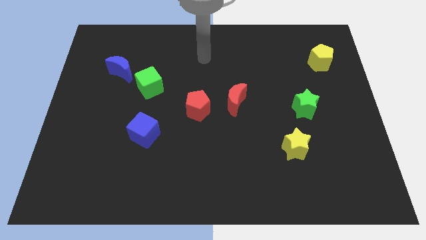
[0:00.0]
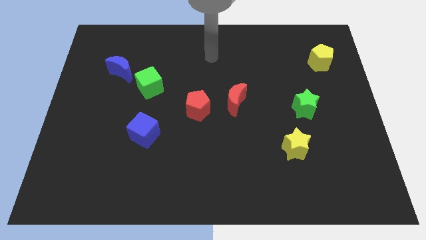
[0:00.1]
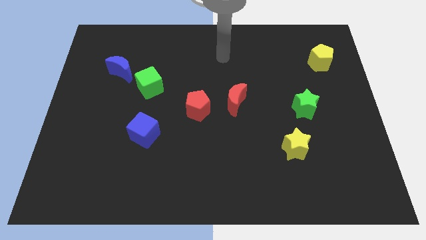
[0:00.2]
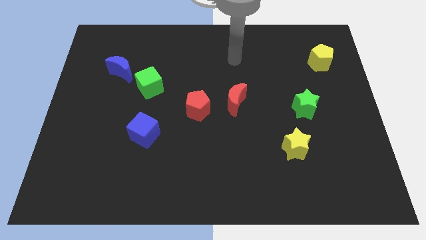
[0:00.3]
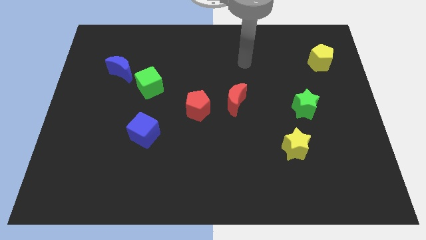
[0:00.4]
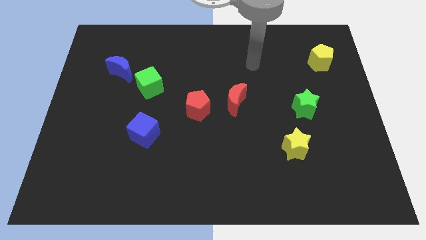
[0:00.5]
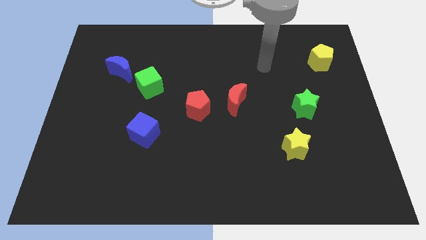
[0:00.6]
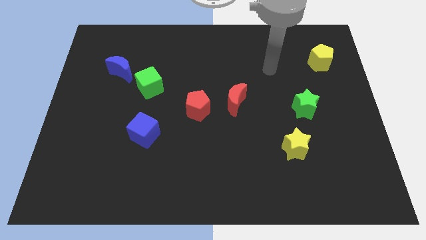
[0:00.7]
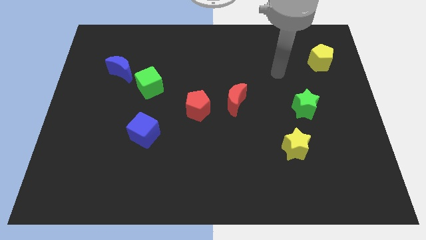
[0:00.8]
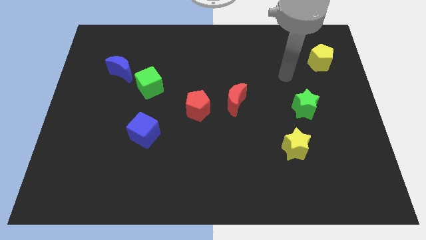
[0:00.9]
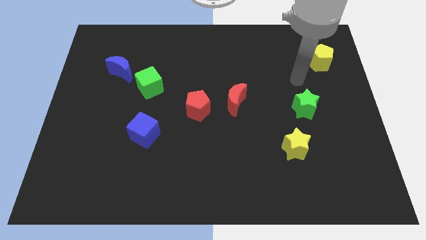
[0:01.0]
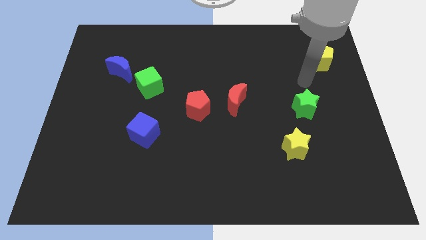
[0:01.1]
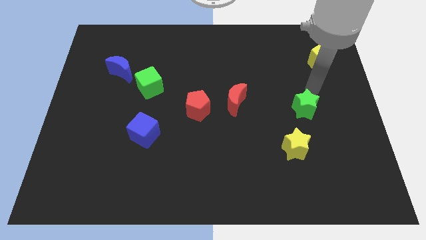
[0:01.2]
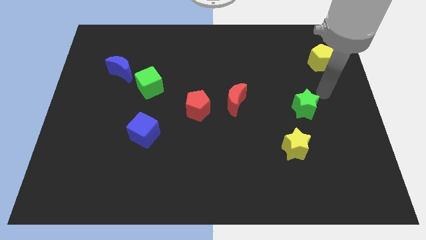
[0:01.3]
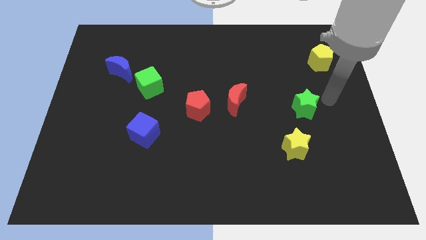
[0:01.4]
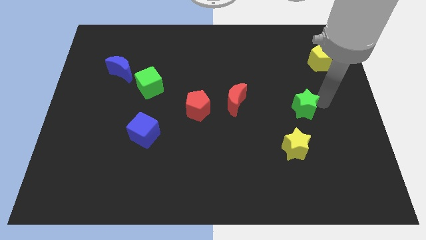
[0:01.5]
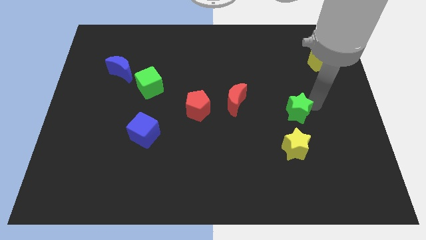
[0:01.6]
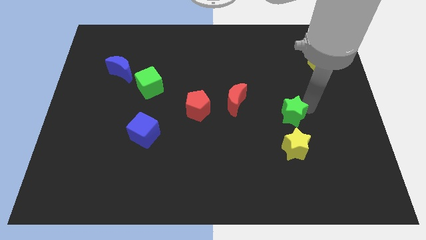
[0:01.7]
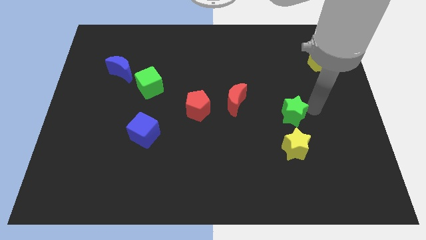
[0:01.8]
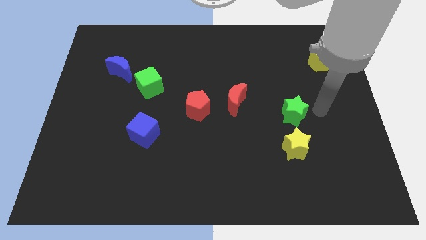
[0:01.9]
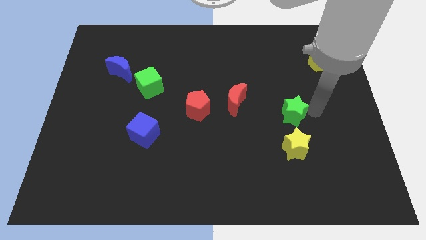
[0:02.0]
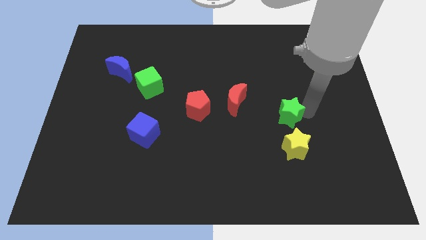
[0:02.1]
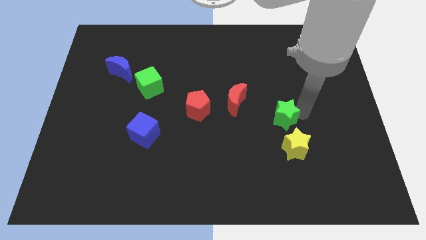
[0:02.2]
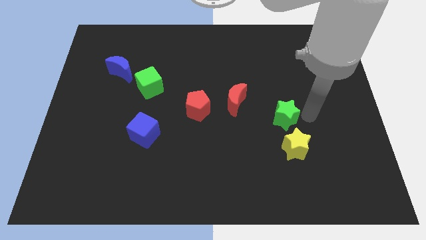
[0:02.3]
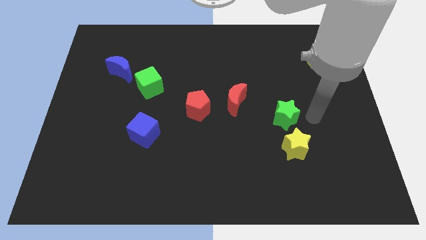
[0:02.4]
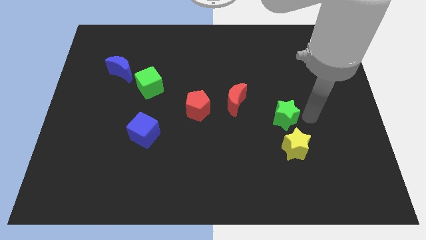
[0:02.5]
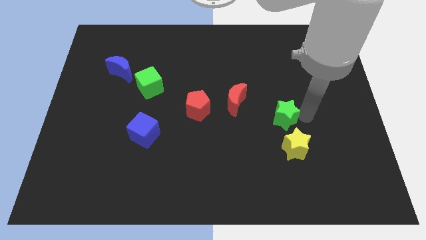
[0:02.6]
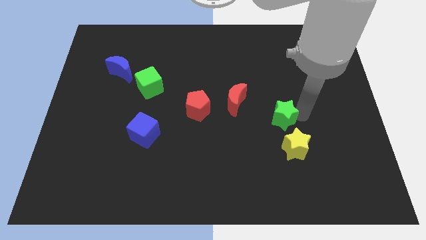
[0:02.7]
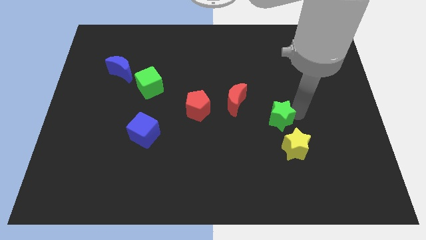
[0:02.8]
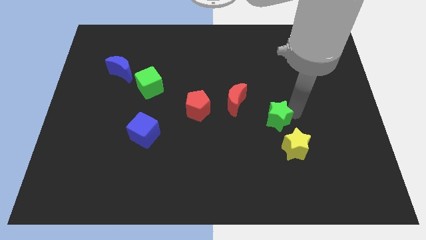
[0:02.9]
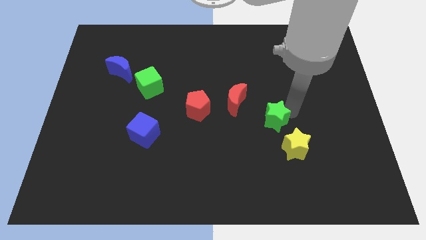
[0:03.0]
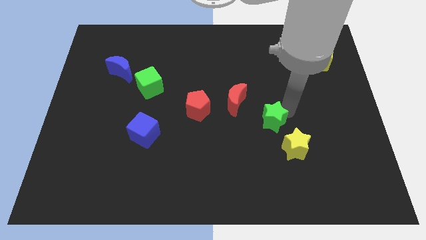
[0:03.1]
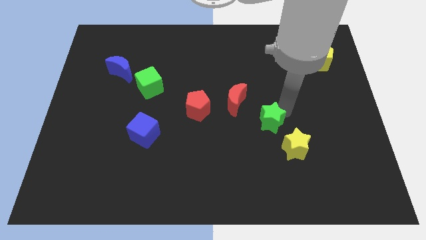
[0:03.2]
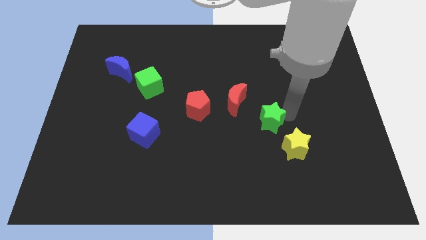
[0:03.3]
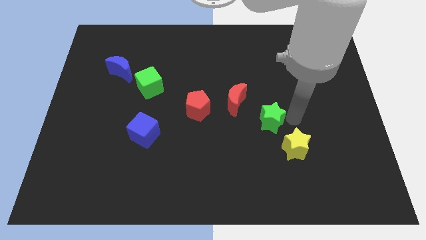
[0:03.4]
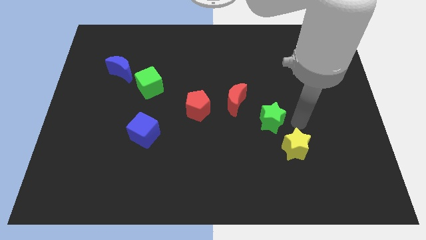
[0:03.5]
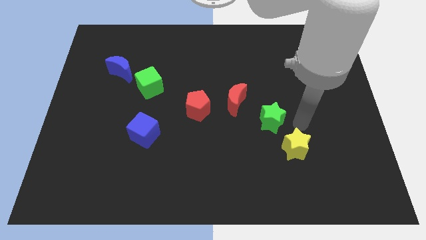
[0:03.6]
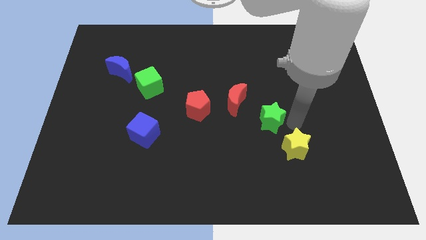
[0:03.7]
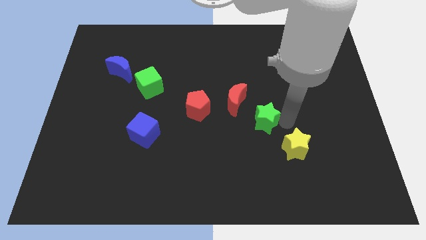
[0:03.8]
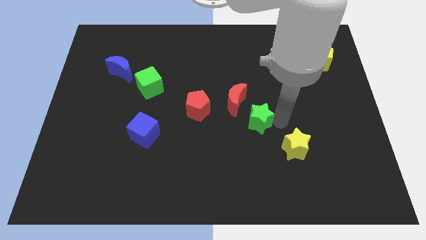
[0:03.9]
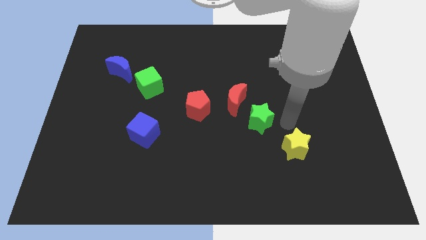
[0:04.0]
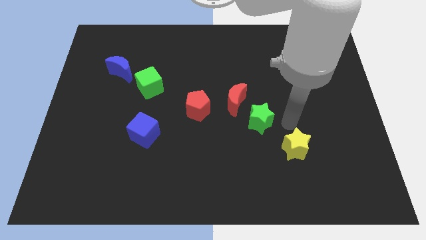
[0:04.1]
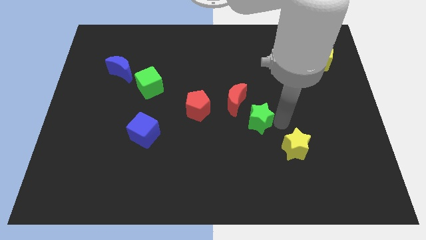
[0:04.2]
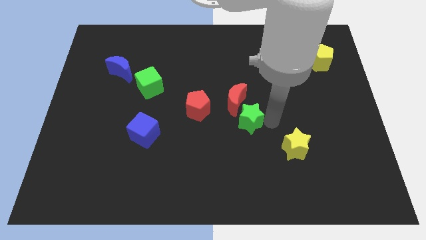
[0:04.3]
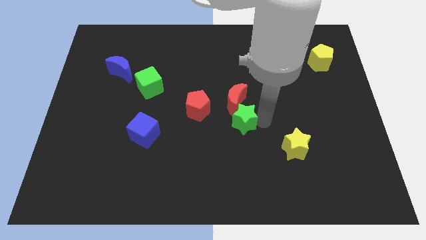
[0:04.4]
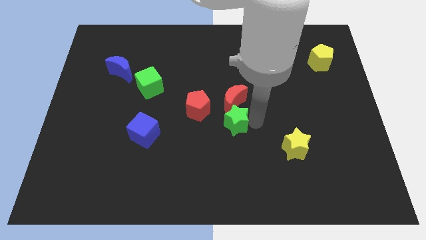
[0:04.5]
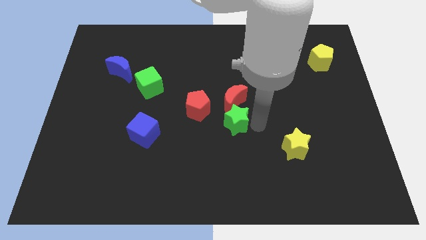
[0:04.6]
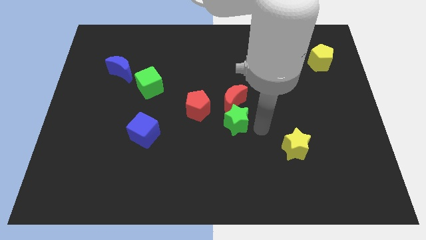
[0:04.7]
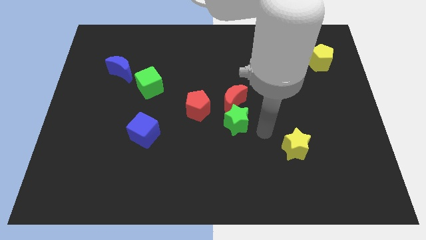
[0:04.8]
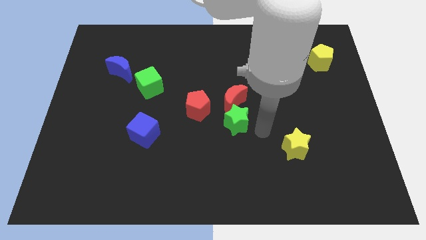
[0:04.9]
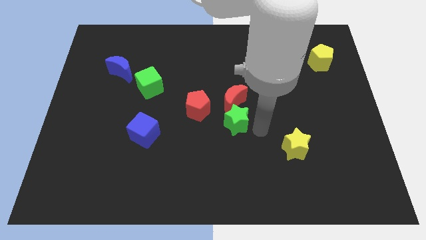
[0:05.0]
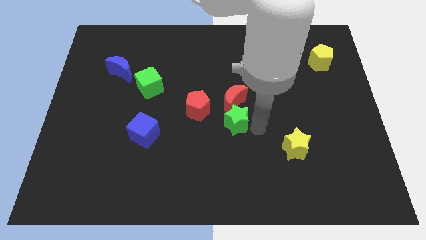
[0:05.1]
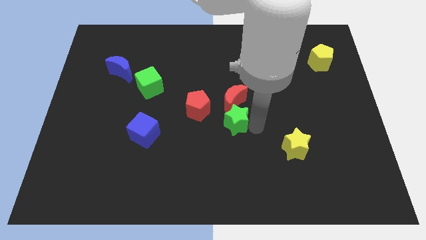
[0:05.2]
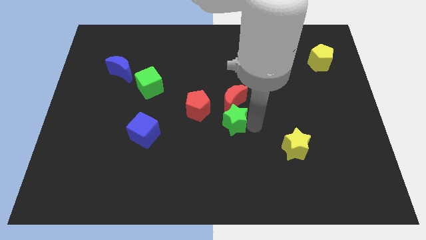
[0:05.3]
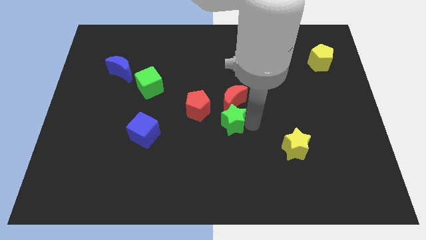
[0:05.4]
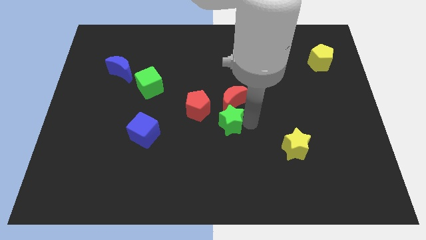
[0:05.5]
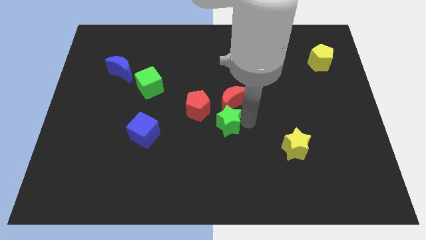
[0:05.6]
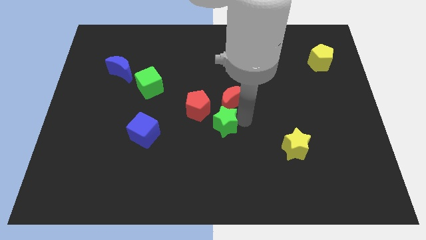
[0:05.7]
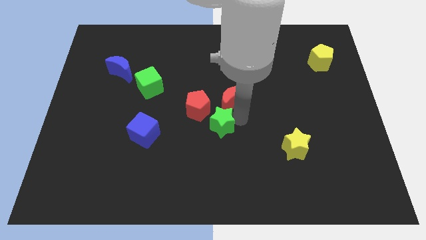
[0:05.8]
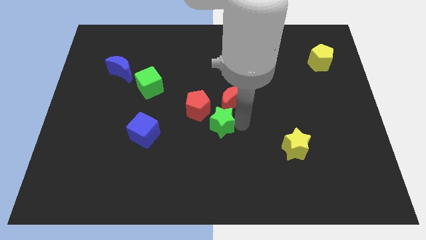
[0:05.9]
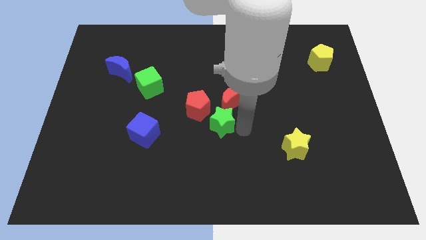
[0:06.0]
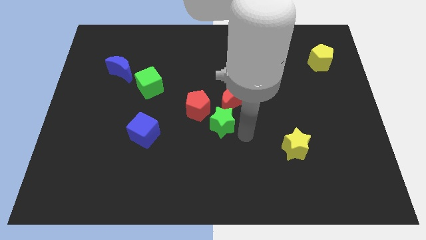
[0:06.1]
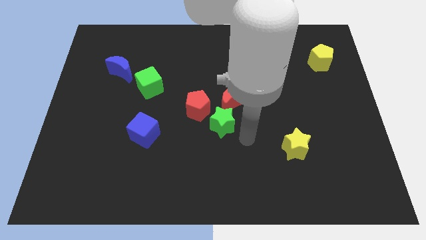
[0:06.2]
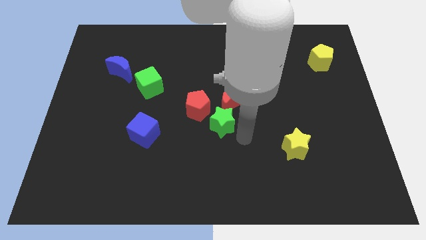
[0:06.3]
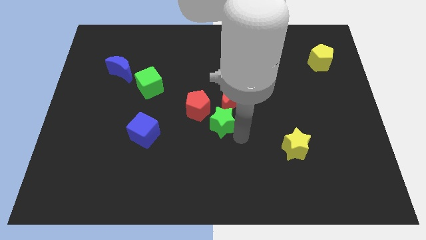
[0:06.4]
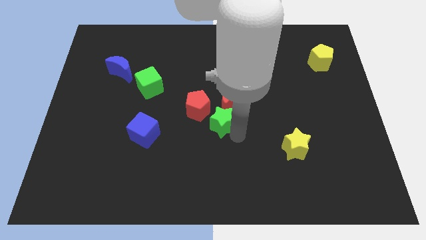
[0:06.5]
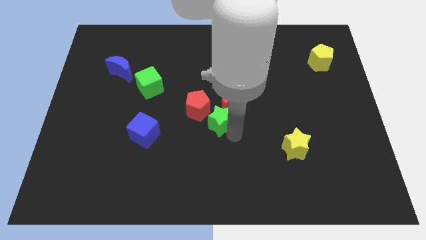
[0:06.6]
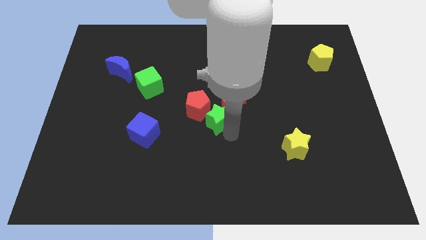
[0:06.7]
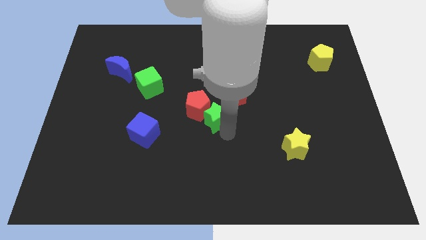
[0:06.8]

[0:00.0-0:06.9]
put the green star to the red pentagon
